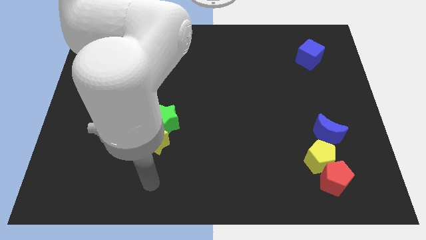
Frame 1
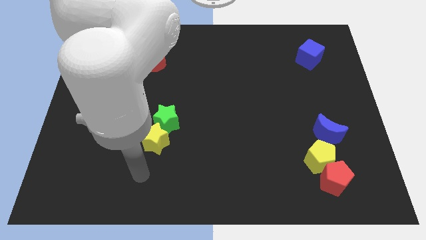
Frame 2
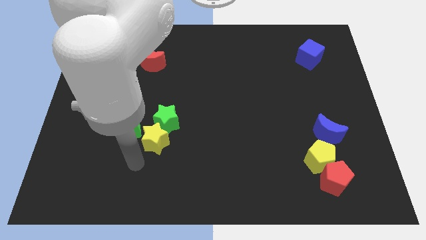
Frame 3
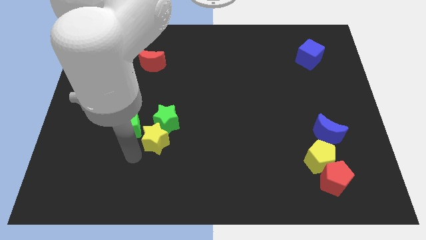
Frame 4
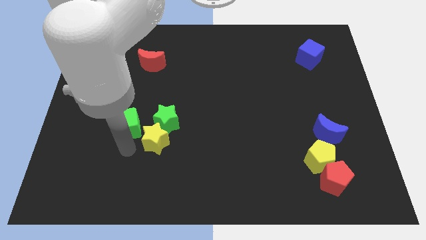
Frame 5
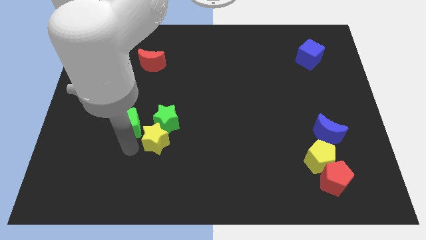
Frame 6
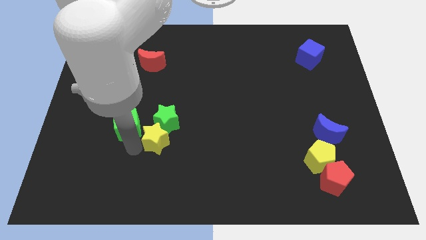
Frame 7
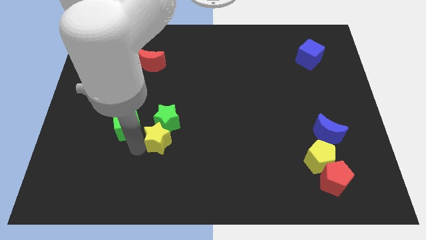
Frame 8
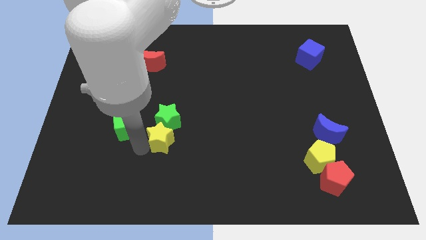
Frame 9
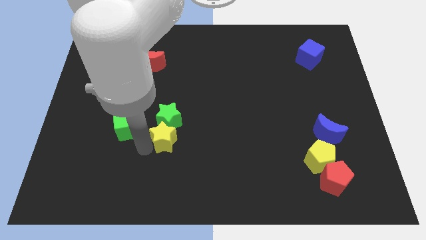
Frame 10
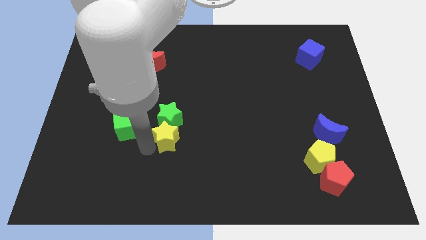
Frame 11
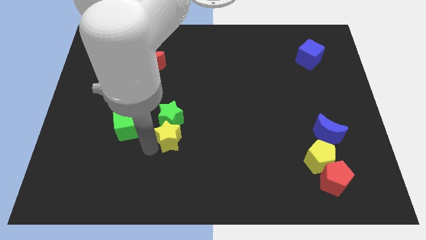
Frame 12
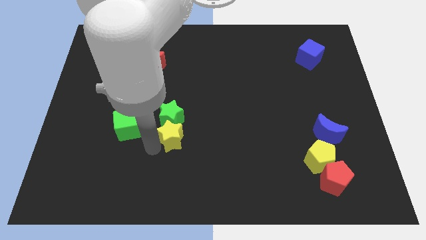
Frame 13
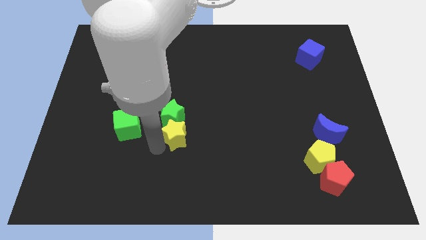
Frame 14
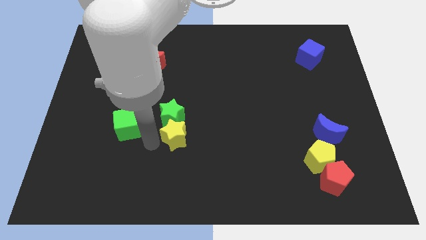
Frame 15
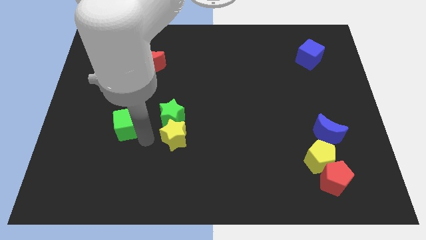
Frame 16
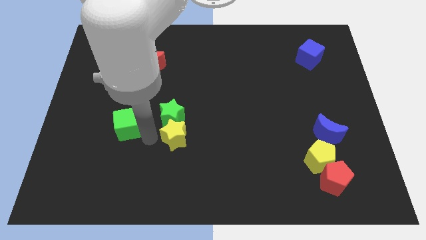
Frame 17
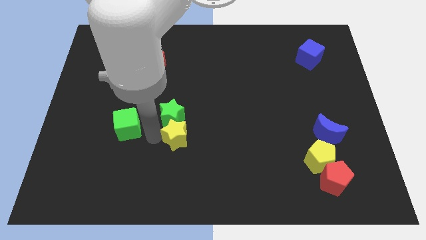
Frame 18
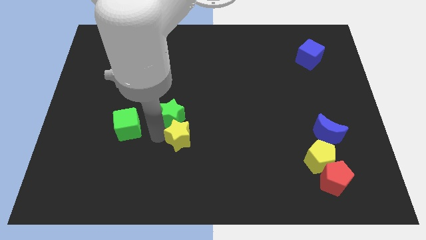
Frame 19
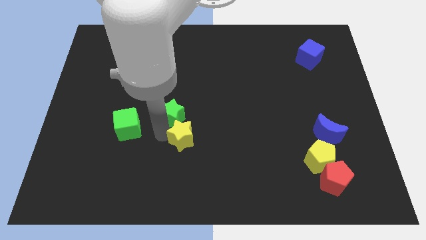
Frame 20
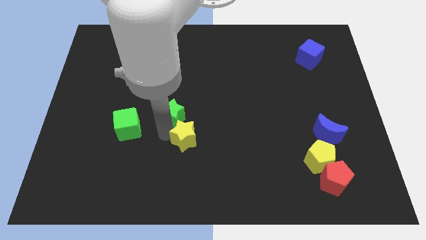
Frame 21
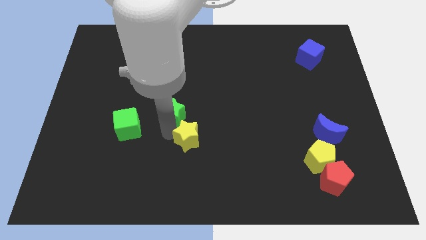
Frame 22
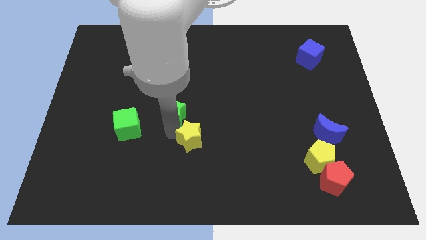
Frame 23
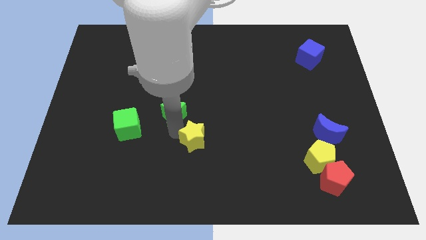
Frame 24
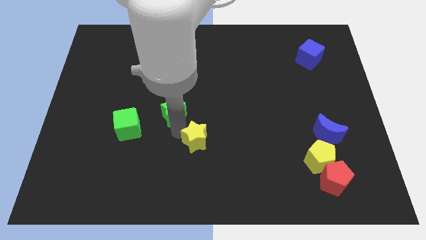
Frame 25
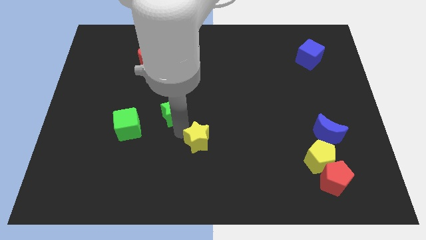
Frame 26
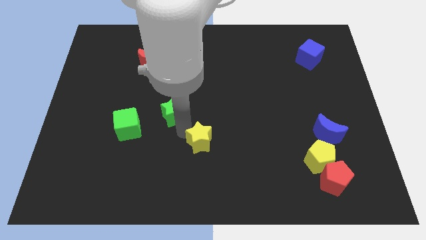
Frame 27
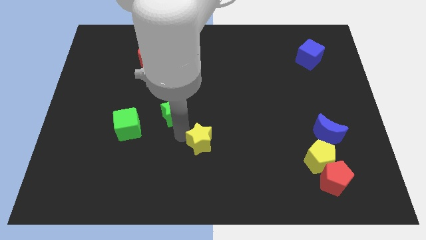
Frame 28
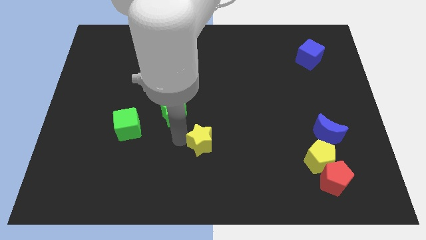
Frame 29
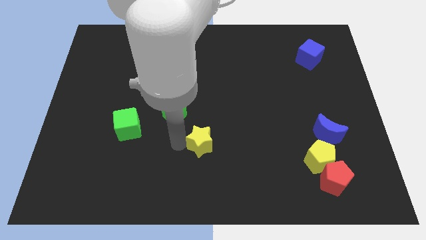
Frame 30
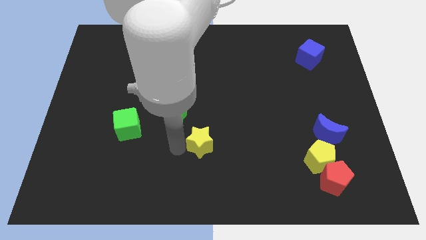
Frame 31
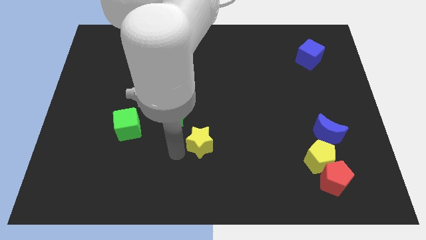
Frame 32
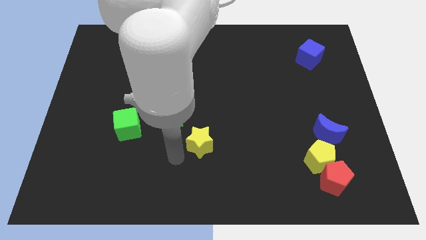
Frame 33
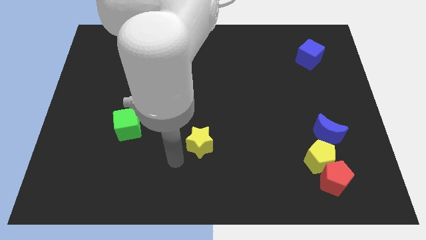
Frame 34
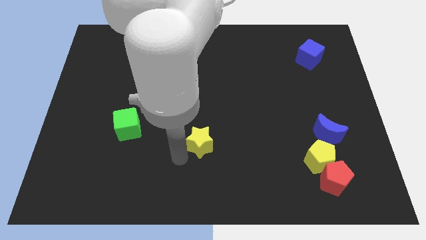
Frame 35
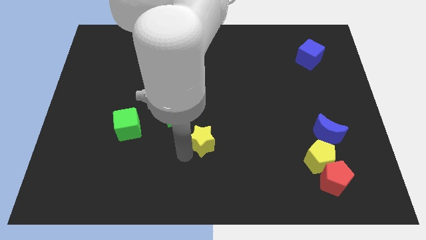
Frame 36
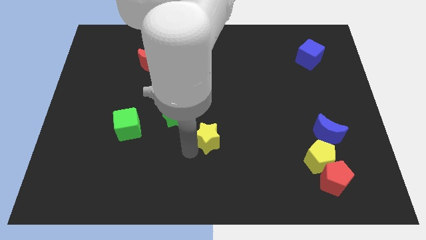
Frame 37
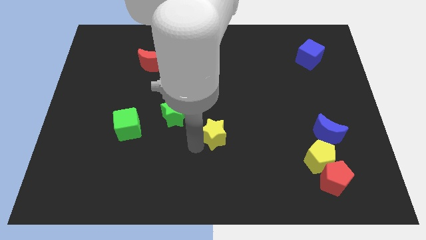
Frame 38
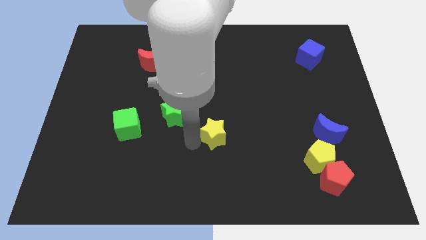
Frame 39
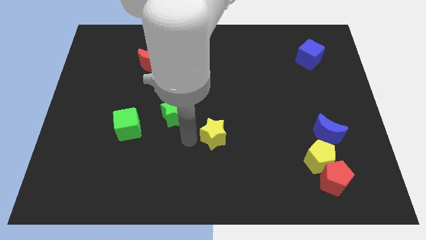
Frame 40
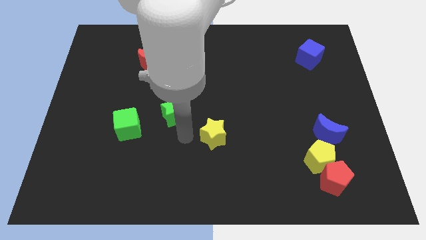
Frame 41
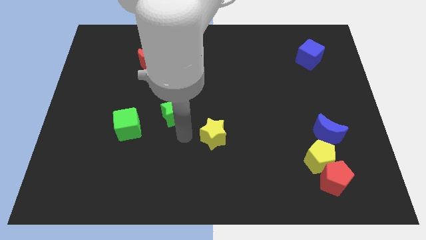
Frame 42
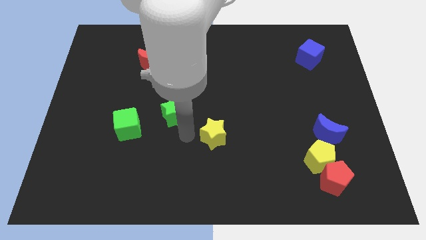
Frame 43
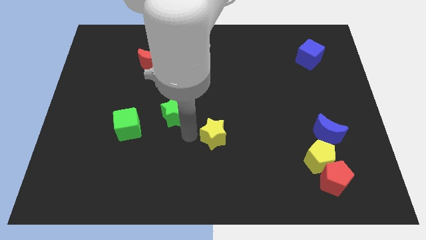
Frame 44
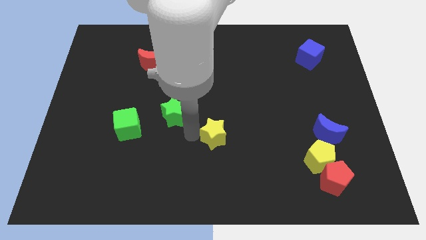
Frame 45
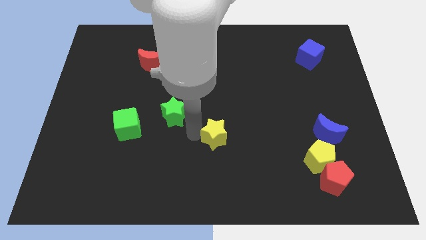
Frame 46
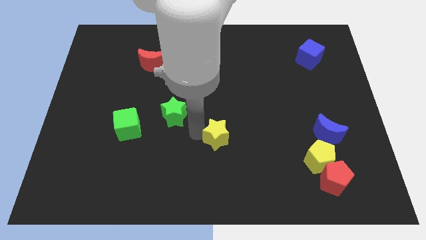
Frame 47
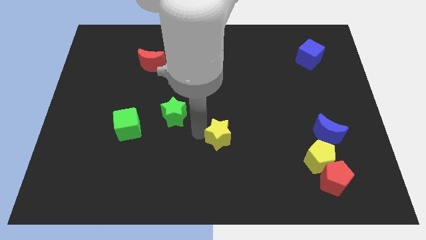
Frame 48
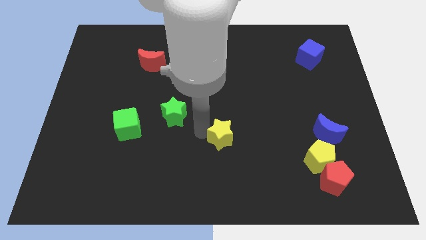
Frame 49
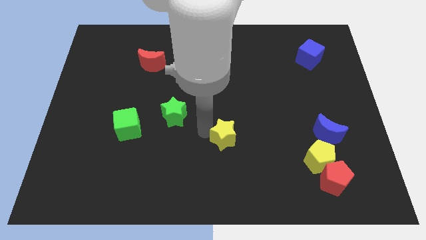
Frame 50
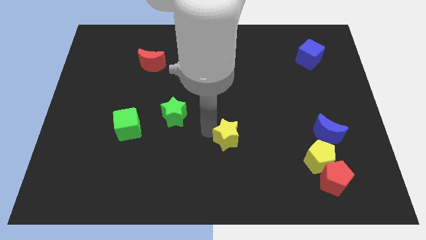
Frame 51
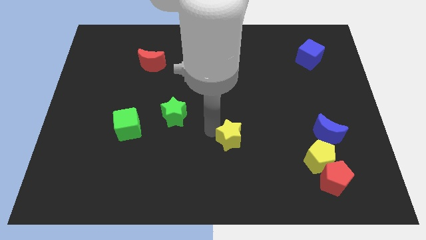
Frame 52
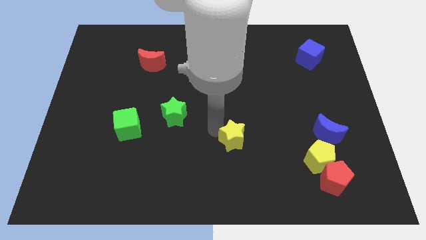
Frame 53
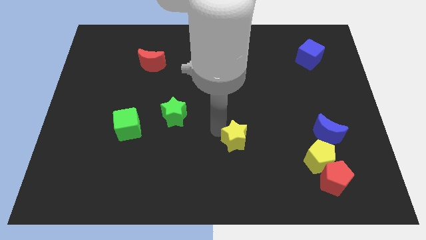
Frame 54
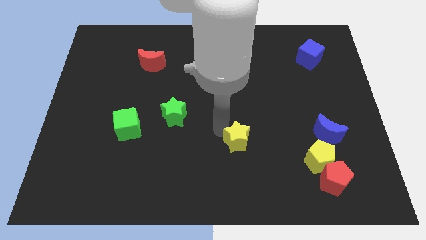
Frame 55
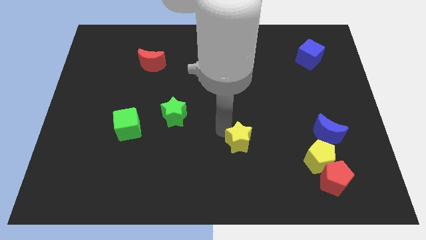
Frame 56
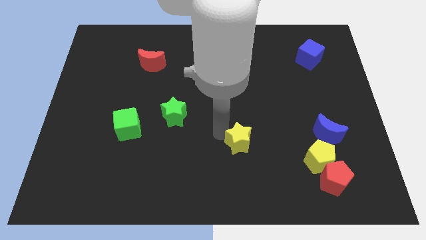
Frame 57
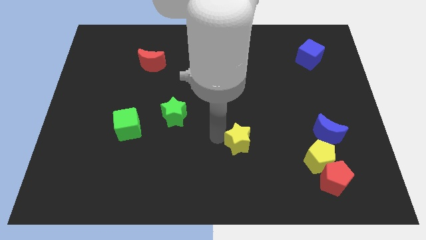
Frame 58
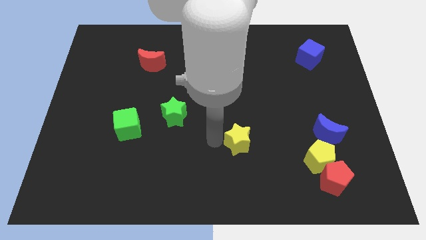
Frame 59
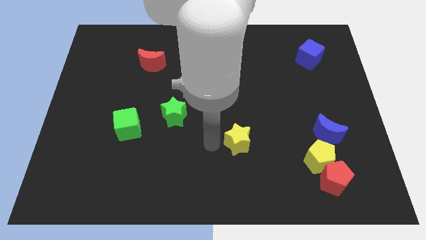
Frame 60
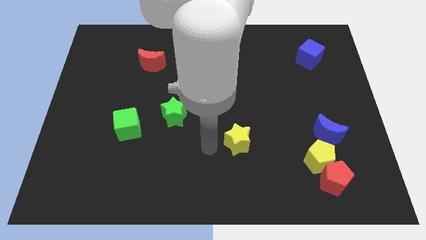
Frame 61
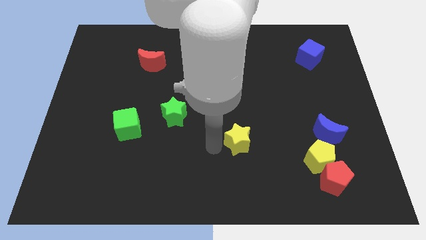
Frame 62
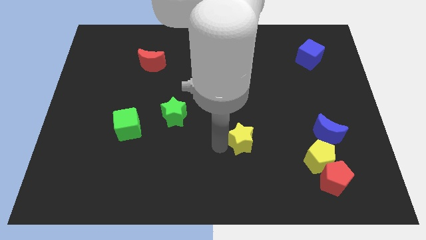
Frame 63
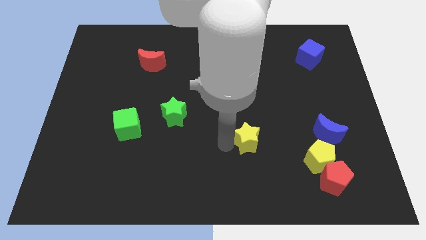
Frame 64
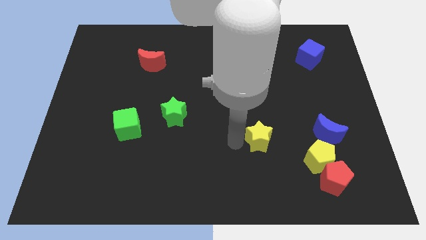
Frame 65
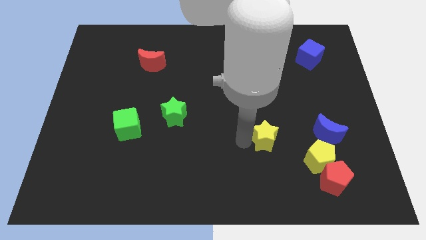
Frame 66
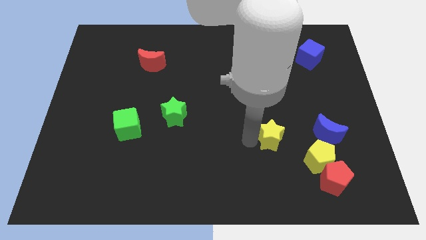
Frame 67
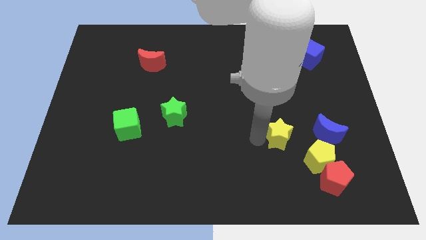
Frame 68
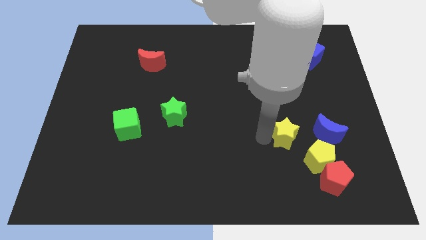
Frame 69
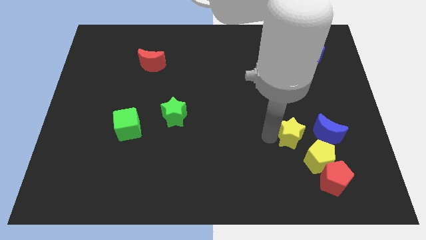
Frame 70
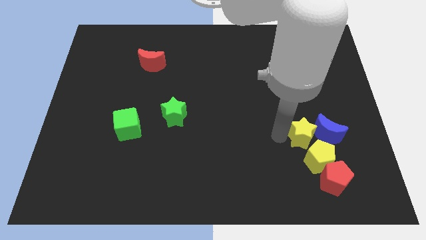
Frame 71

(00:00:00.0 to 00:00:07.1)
slide the yellow star towards the blue moon

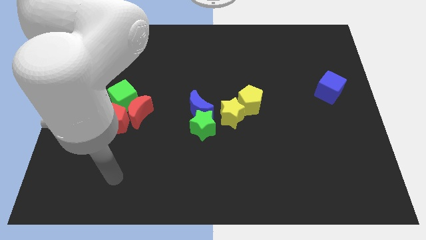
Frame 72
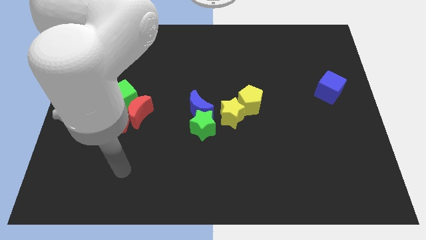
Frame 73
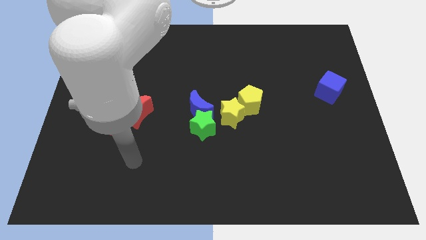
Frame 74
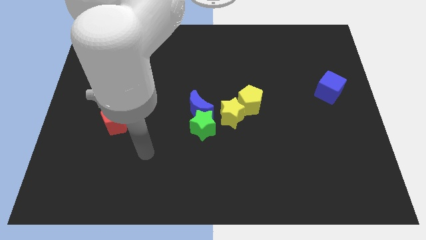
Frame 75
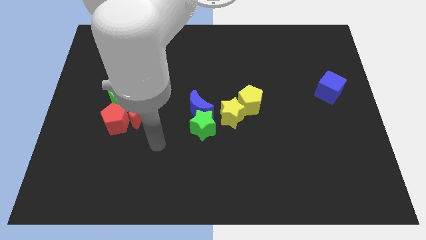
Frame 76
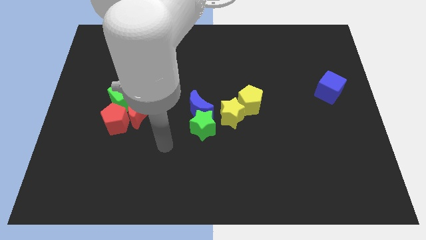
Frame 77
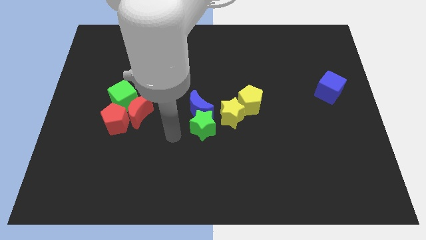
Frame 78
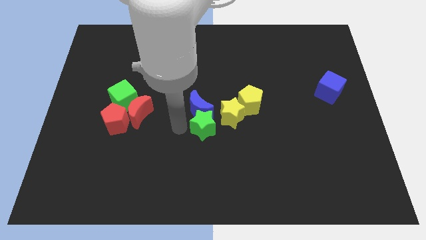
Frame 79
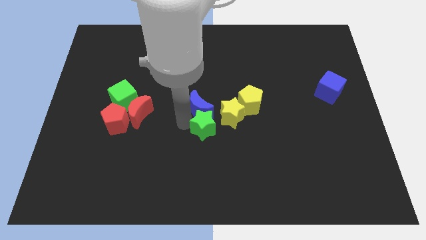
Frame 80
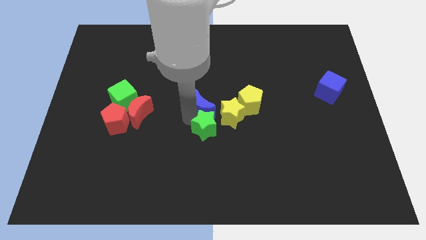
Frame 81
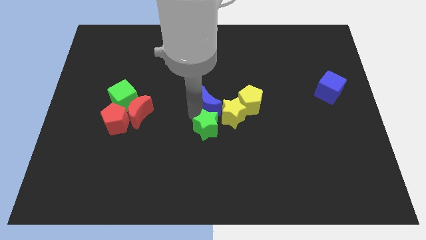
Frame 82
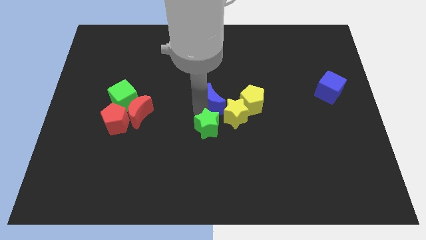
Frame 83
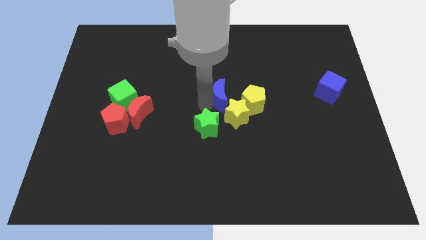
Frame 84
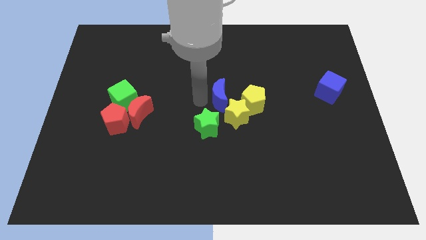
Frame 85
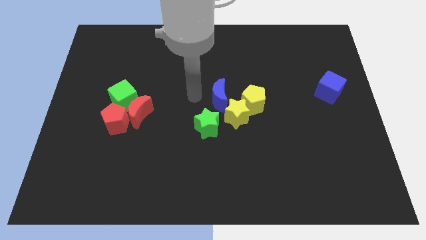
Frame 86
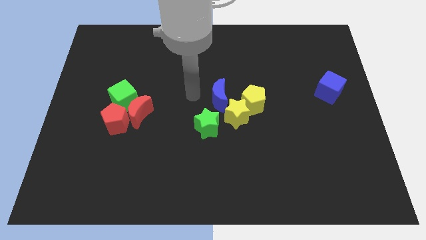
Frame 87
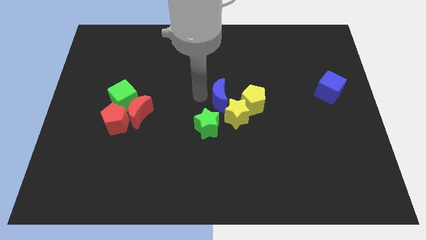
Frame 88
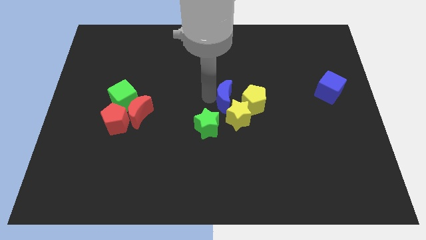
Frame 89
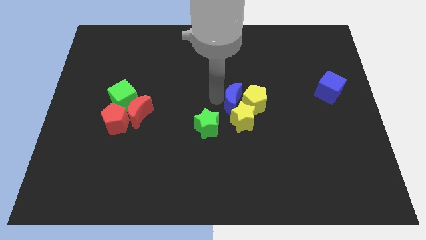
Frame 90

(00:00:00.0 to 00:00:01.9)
move the blue moon towards the yellow pentagon
